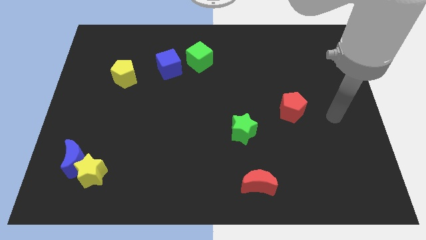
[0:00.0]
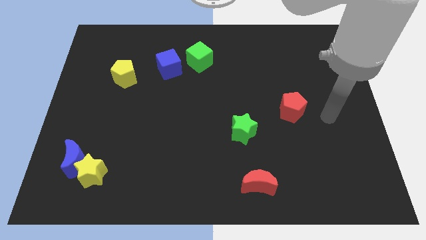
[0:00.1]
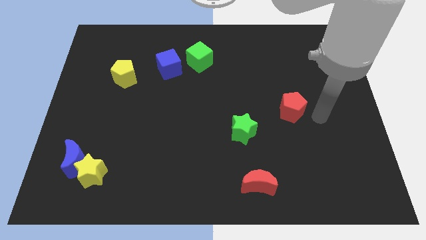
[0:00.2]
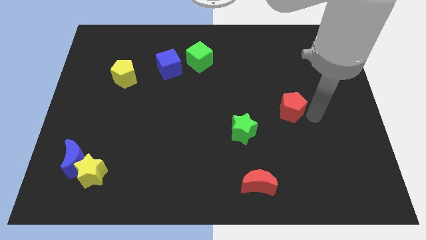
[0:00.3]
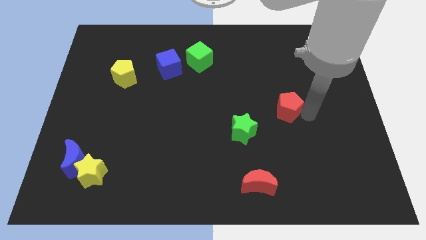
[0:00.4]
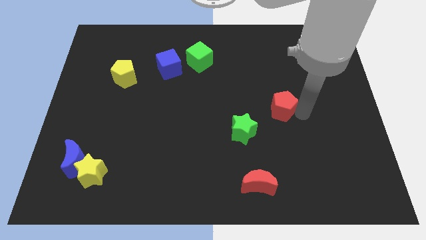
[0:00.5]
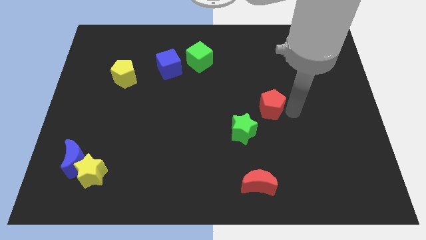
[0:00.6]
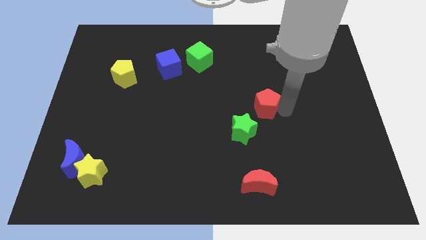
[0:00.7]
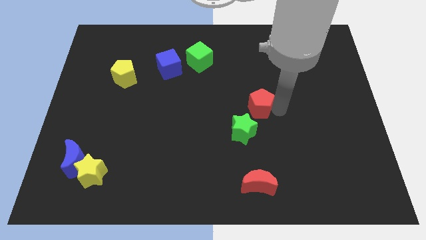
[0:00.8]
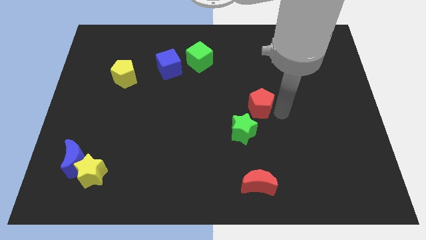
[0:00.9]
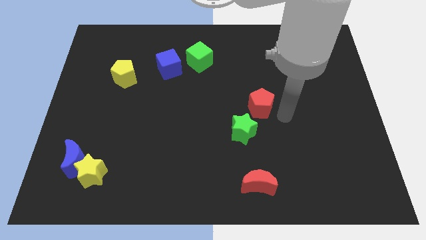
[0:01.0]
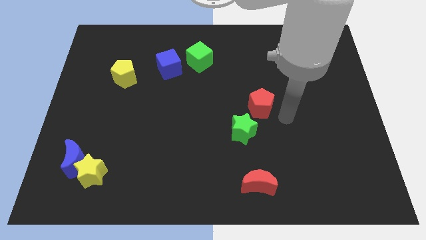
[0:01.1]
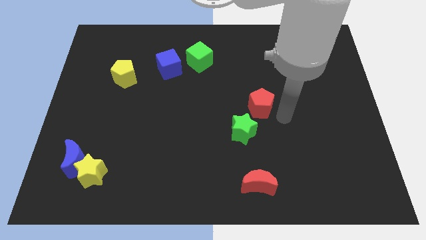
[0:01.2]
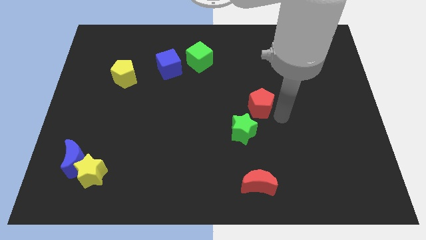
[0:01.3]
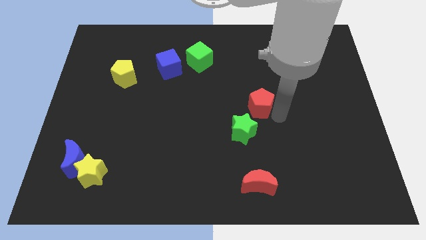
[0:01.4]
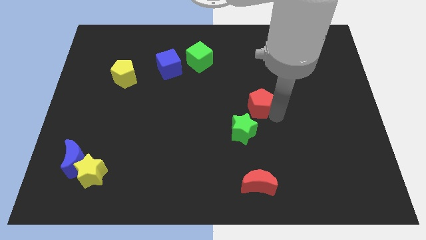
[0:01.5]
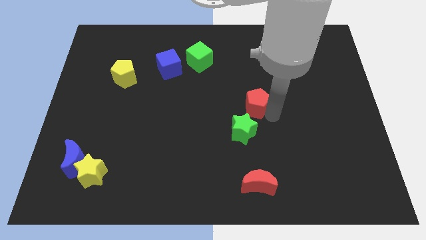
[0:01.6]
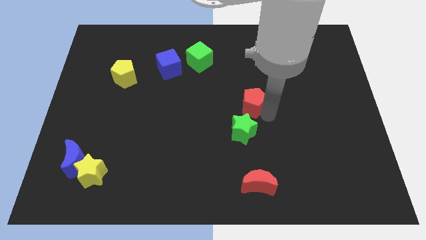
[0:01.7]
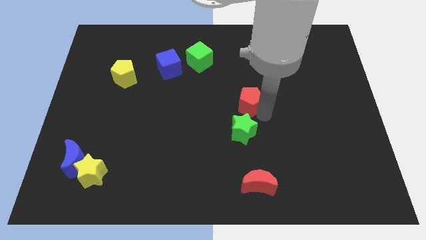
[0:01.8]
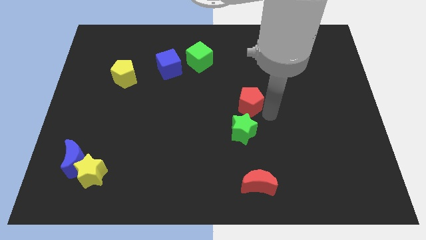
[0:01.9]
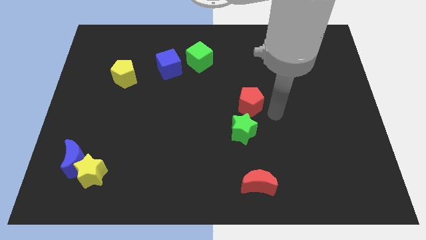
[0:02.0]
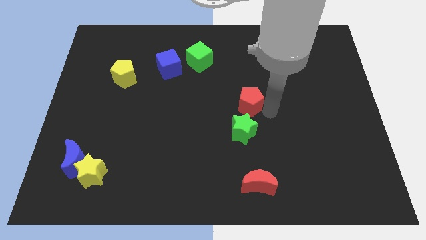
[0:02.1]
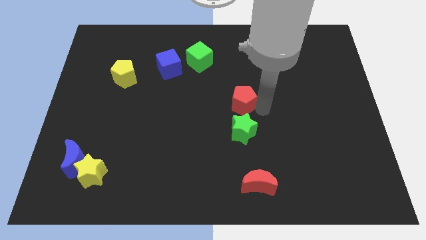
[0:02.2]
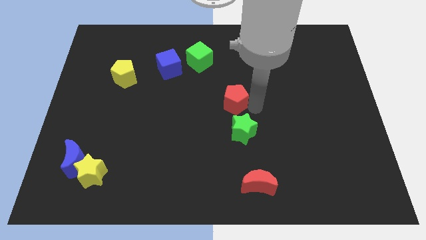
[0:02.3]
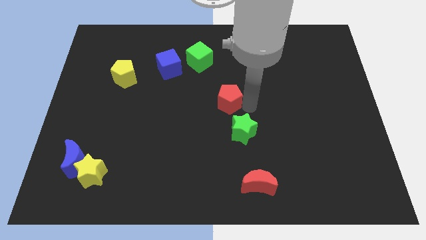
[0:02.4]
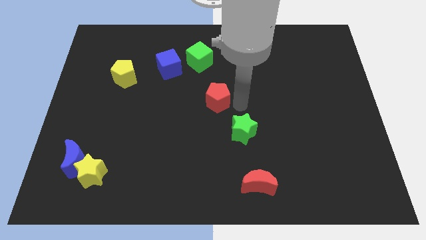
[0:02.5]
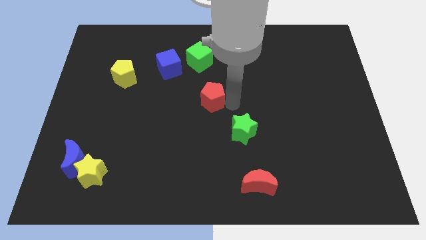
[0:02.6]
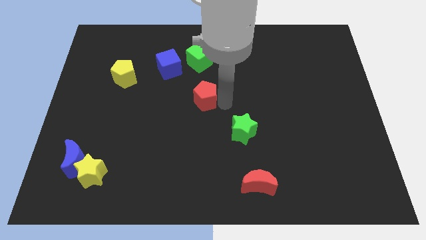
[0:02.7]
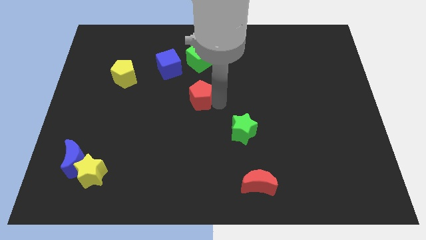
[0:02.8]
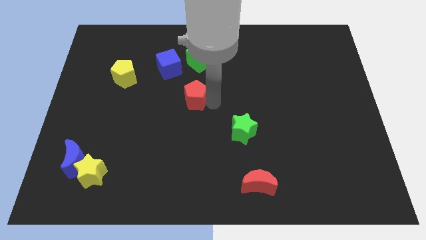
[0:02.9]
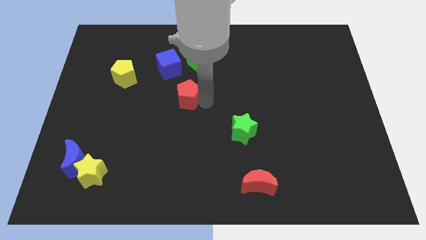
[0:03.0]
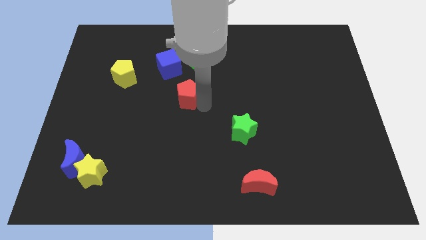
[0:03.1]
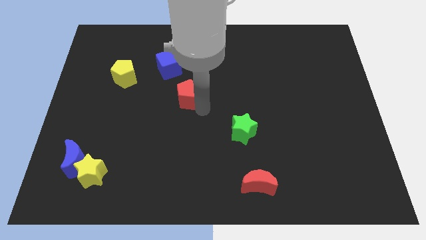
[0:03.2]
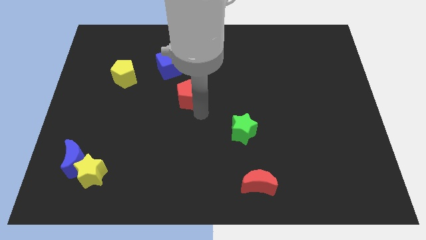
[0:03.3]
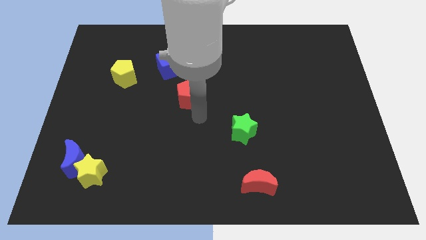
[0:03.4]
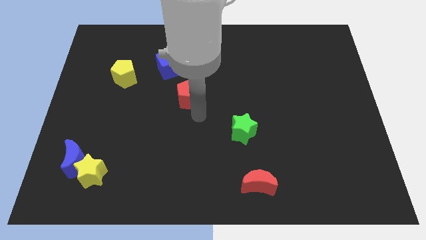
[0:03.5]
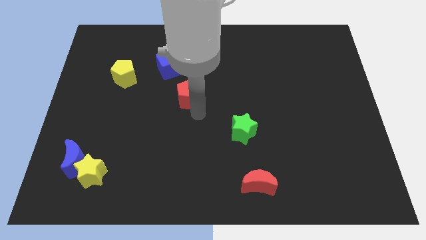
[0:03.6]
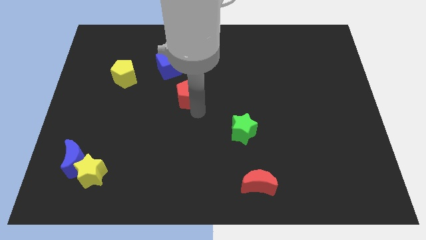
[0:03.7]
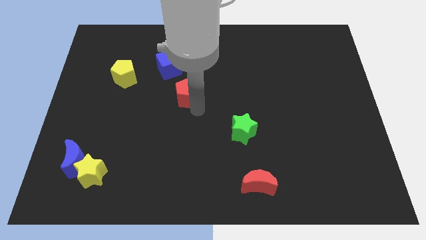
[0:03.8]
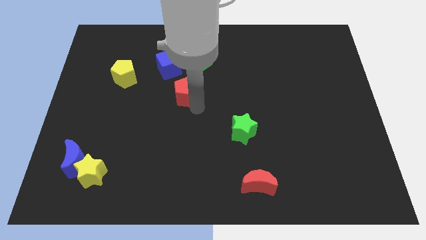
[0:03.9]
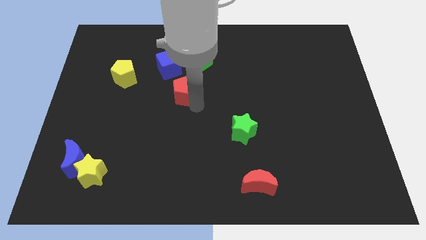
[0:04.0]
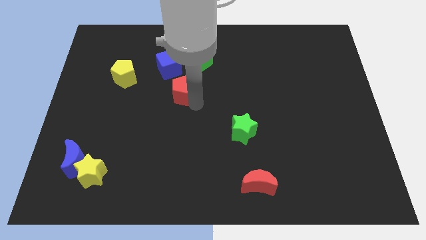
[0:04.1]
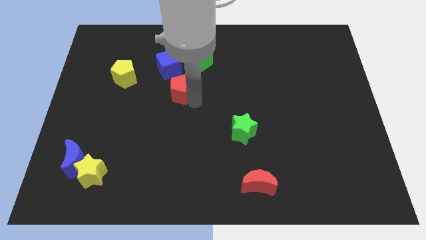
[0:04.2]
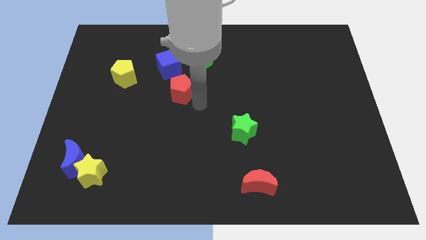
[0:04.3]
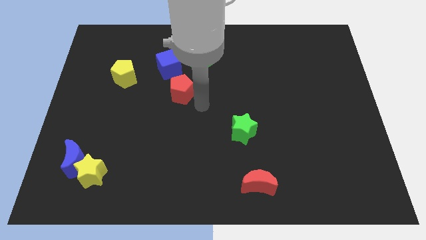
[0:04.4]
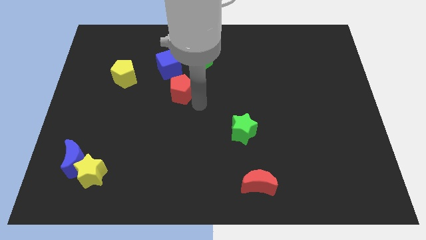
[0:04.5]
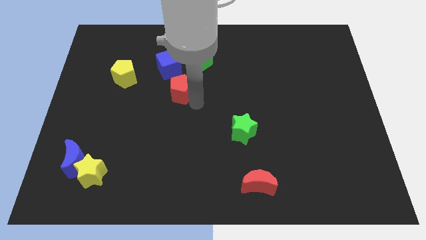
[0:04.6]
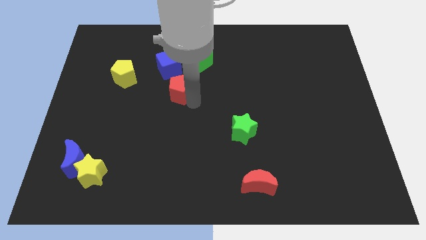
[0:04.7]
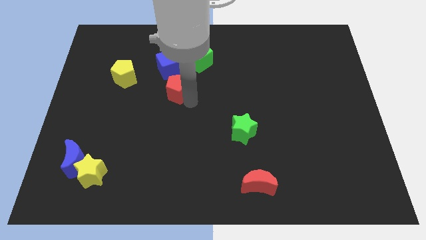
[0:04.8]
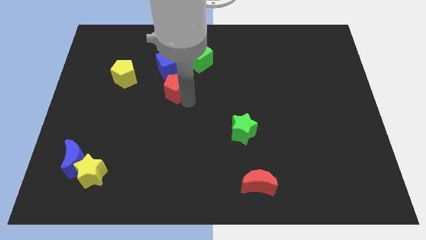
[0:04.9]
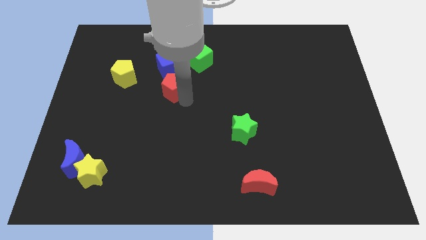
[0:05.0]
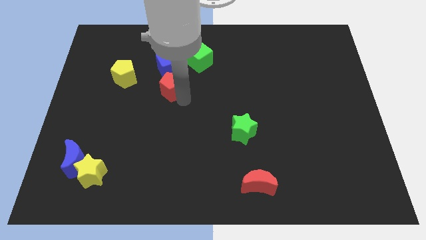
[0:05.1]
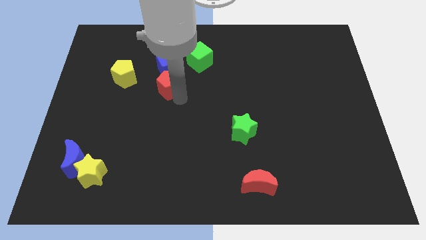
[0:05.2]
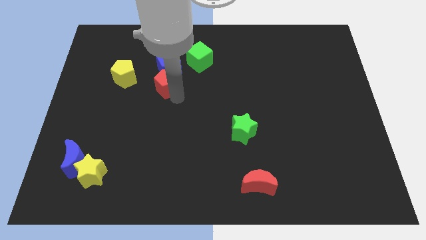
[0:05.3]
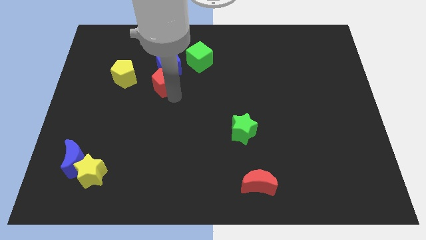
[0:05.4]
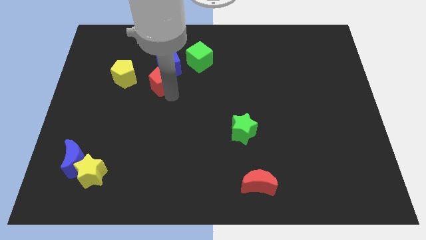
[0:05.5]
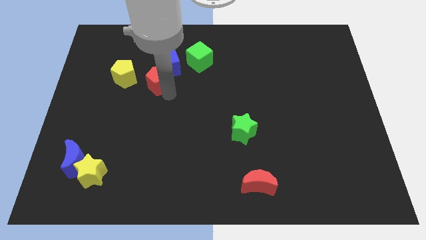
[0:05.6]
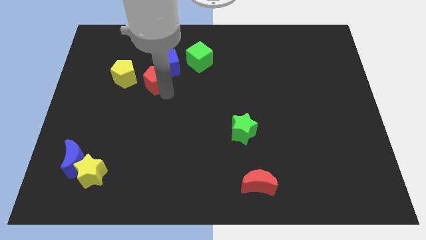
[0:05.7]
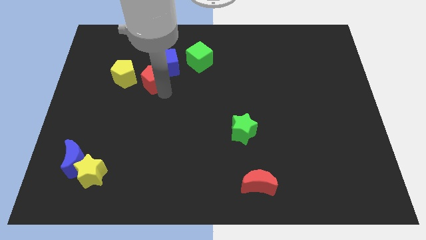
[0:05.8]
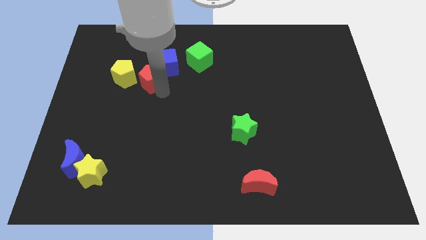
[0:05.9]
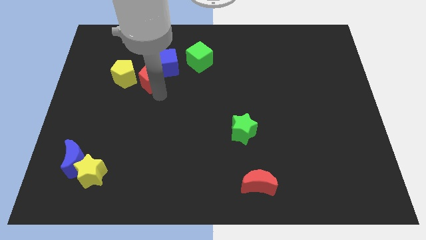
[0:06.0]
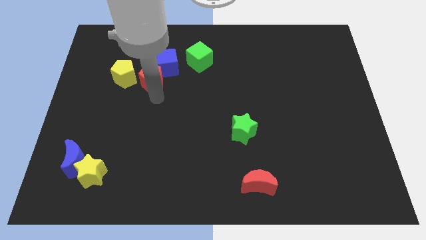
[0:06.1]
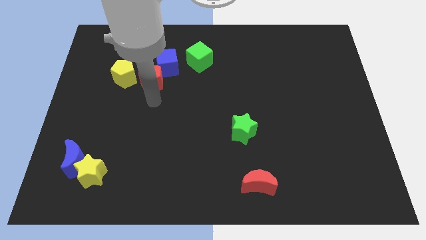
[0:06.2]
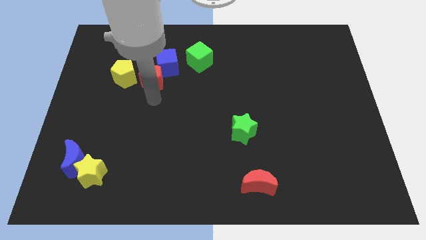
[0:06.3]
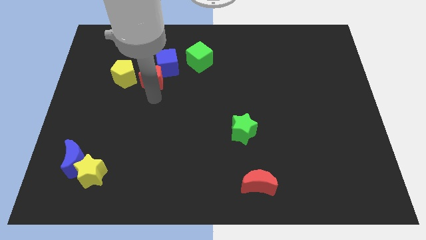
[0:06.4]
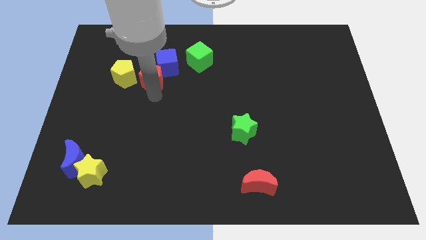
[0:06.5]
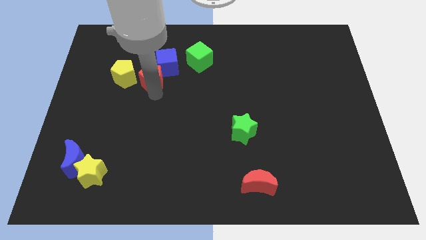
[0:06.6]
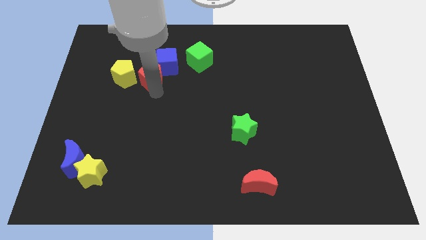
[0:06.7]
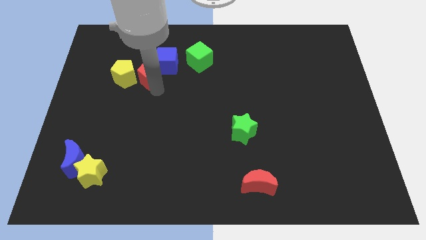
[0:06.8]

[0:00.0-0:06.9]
put the red pentagon to the left of the blue cube
